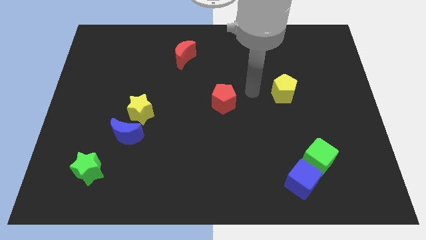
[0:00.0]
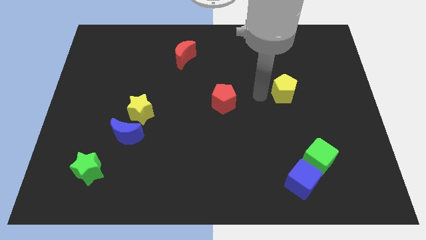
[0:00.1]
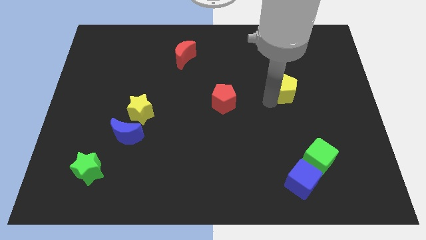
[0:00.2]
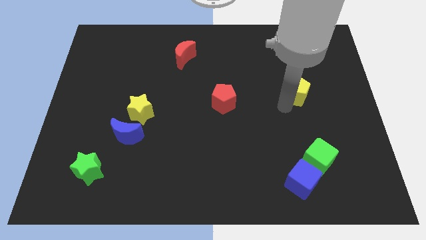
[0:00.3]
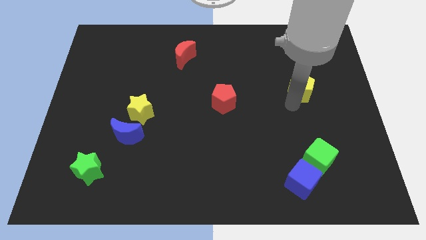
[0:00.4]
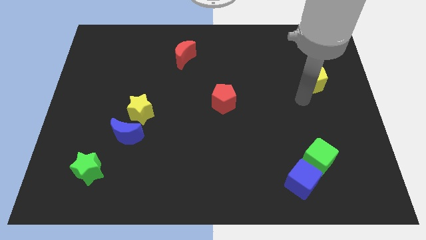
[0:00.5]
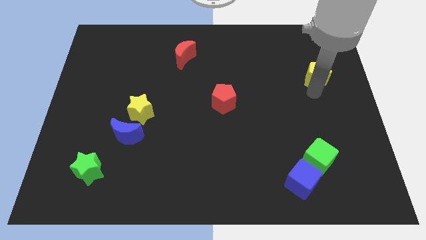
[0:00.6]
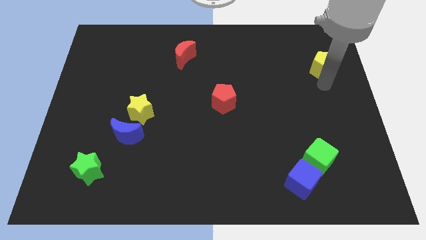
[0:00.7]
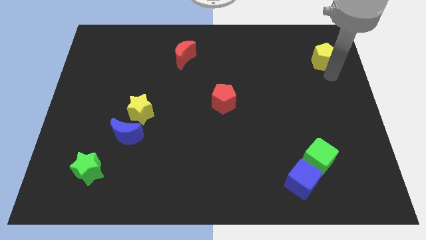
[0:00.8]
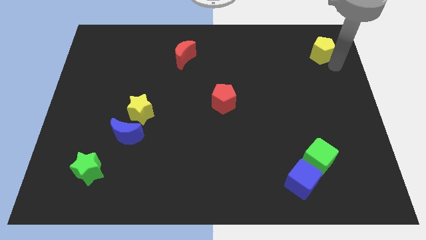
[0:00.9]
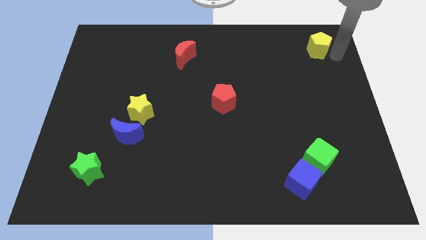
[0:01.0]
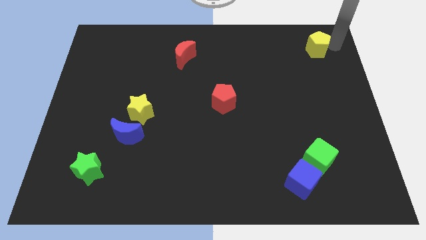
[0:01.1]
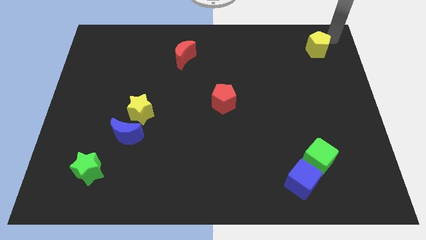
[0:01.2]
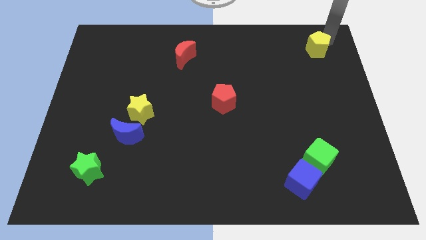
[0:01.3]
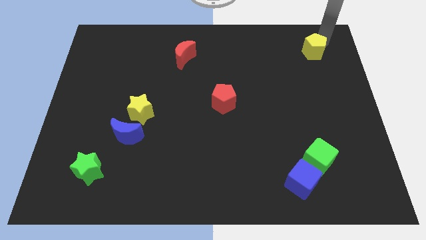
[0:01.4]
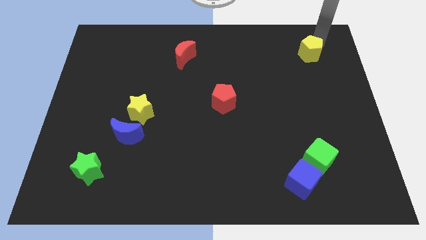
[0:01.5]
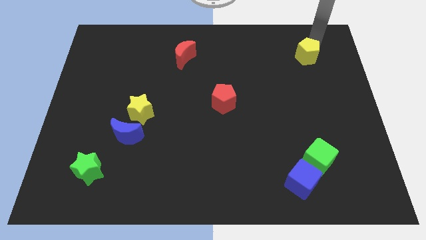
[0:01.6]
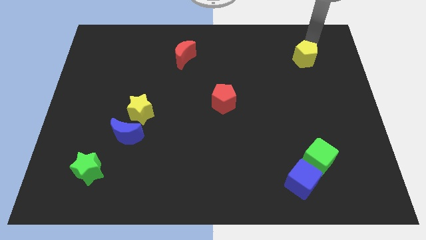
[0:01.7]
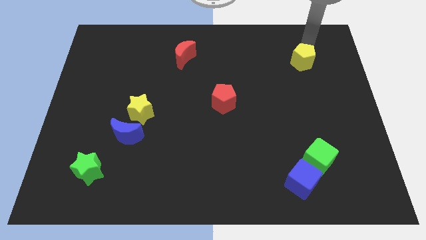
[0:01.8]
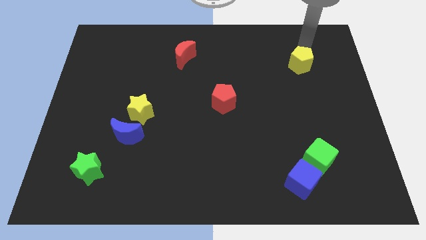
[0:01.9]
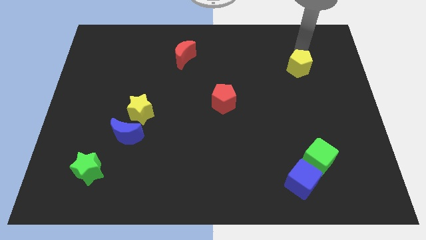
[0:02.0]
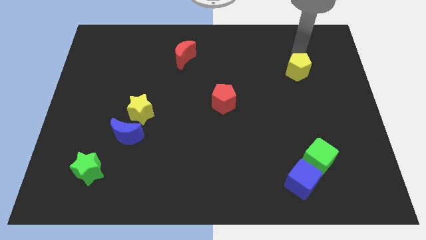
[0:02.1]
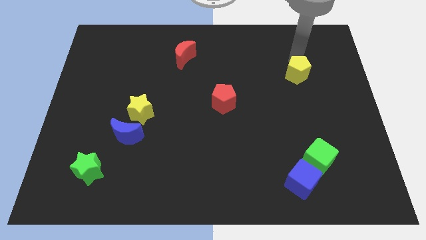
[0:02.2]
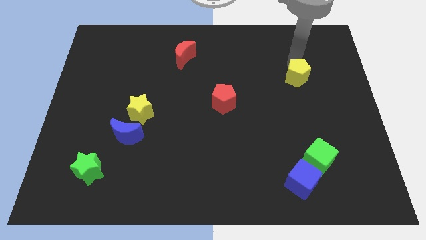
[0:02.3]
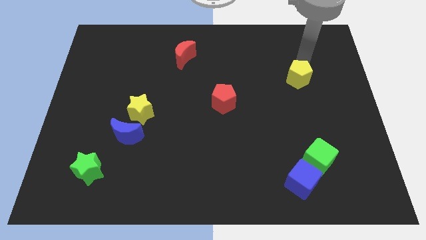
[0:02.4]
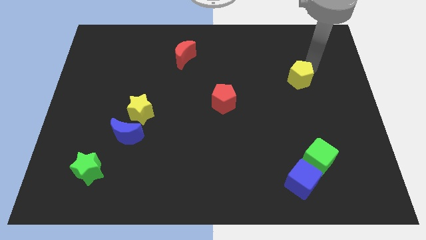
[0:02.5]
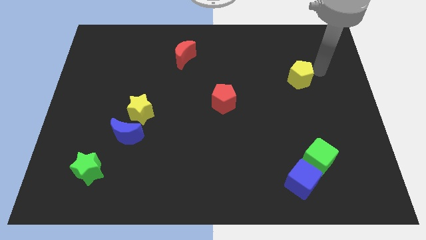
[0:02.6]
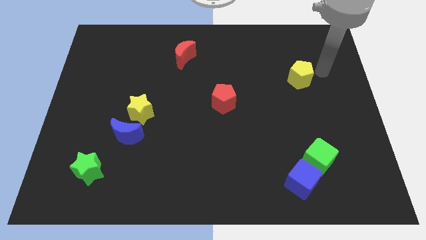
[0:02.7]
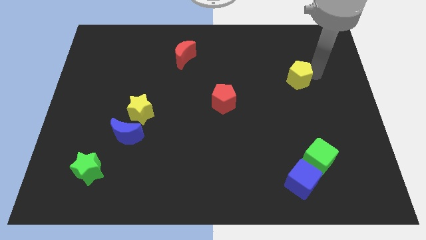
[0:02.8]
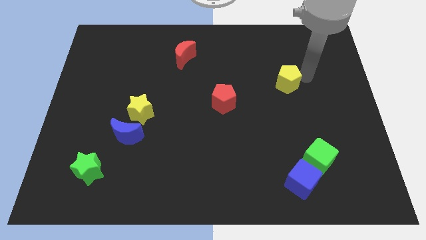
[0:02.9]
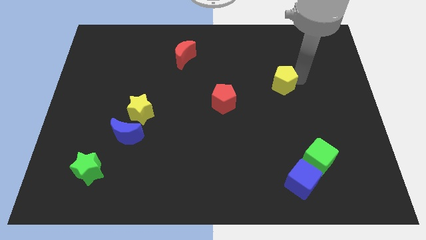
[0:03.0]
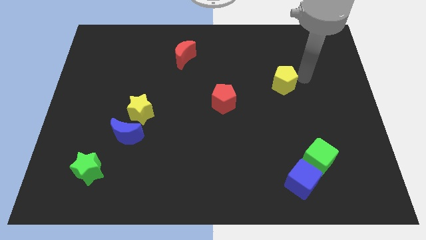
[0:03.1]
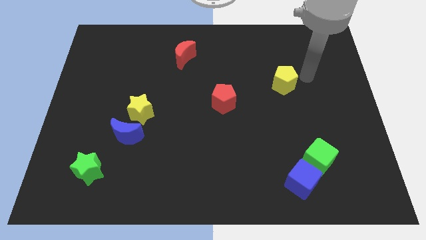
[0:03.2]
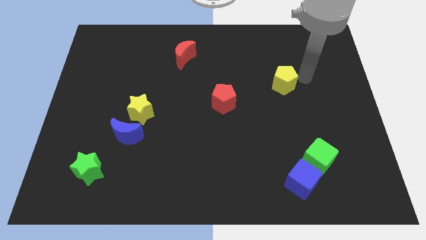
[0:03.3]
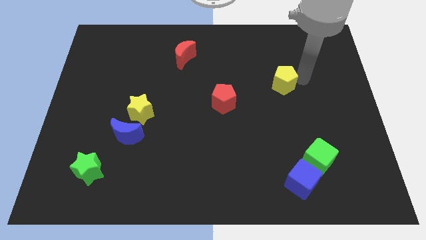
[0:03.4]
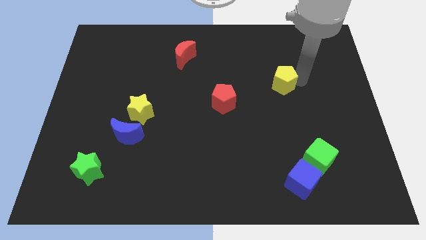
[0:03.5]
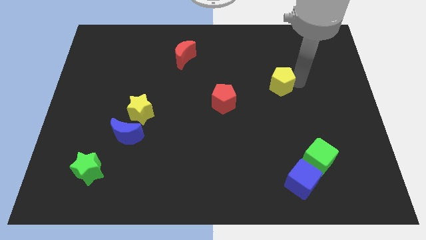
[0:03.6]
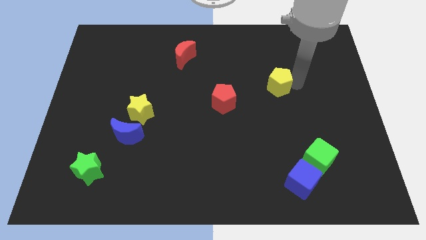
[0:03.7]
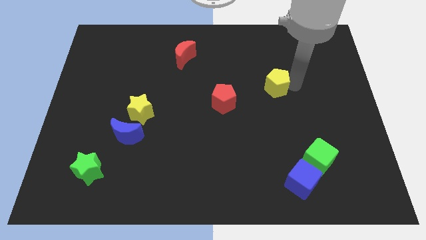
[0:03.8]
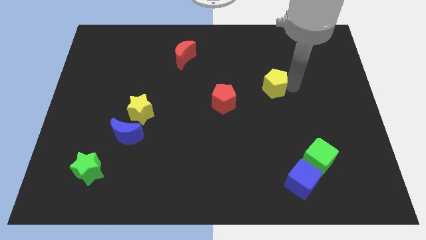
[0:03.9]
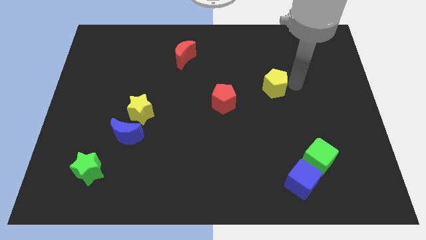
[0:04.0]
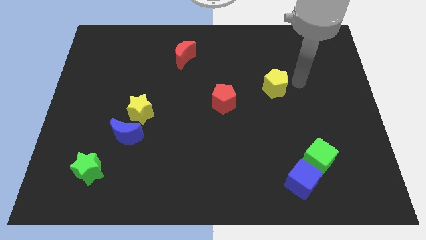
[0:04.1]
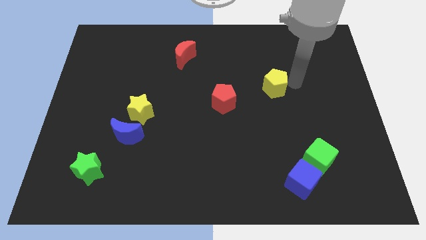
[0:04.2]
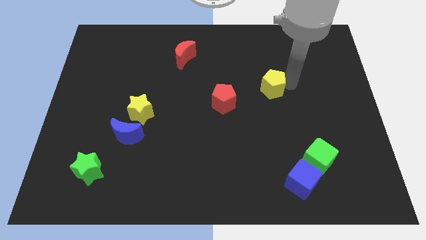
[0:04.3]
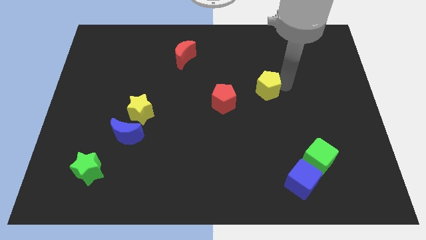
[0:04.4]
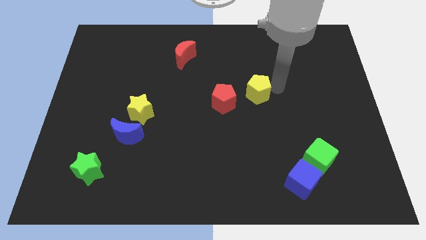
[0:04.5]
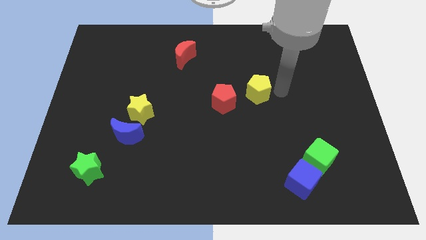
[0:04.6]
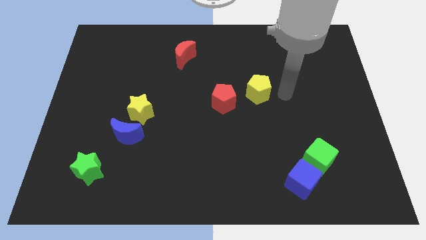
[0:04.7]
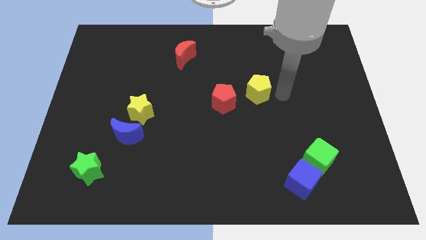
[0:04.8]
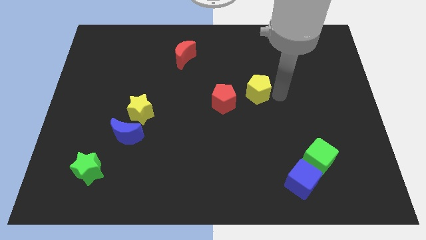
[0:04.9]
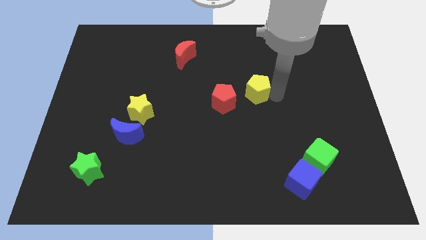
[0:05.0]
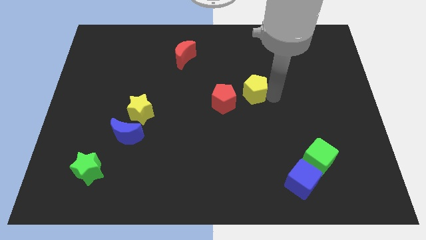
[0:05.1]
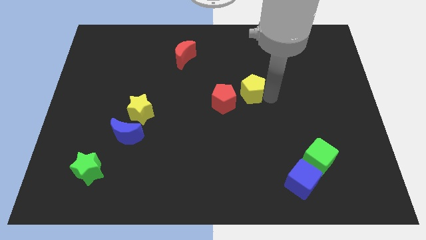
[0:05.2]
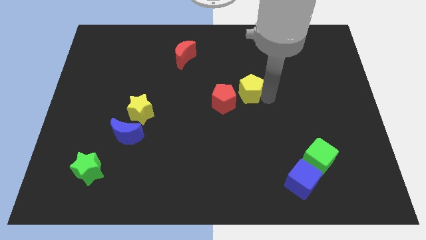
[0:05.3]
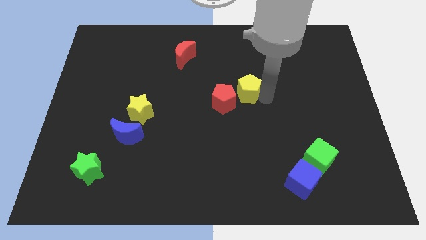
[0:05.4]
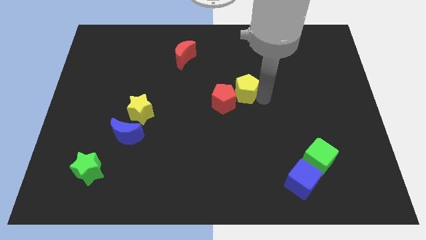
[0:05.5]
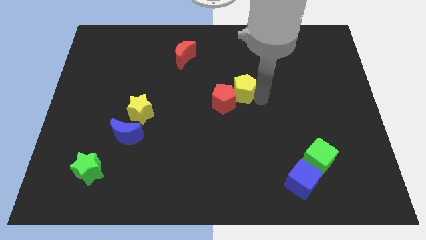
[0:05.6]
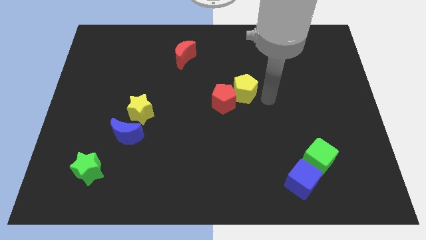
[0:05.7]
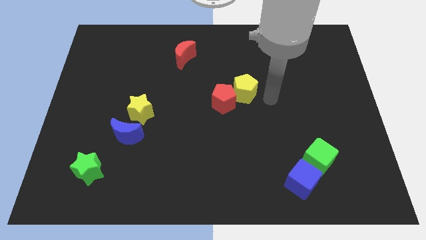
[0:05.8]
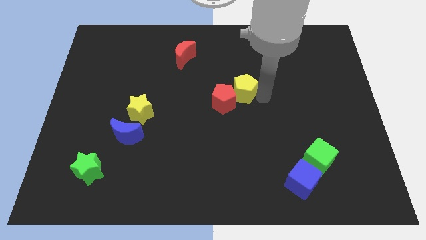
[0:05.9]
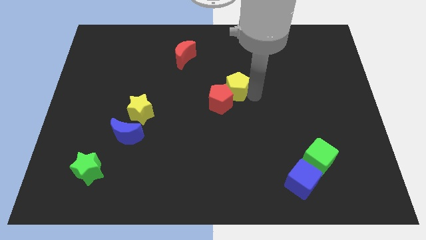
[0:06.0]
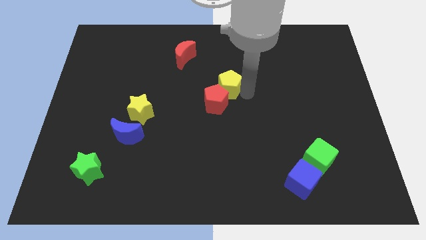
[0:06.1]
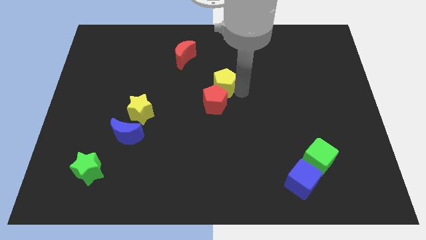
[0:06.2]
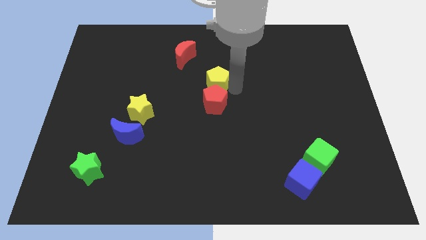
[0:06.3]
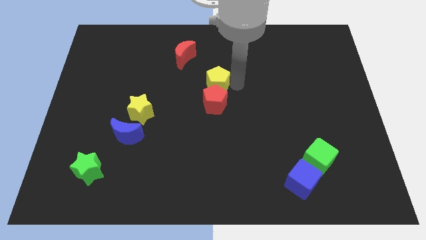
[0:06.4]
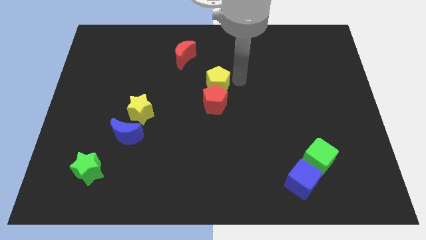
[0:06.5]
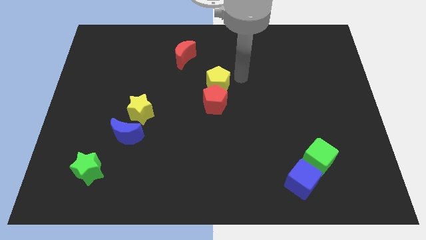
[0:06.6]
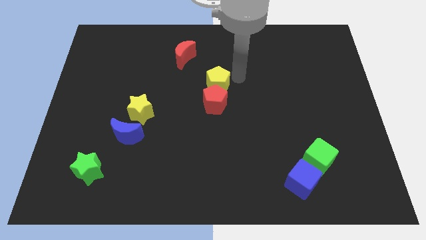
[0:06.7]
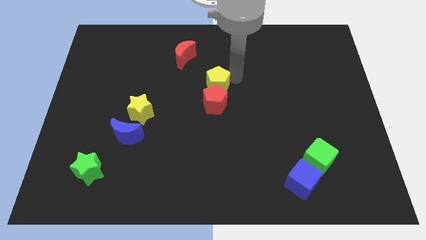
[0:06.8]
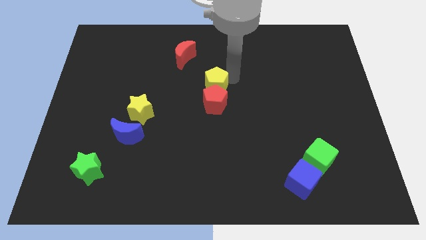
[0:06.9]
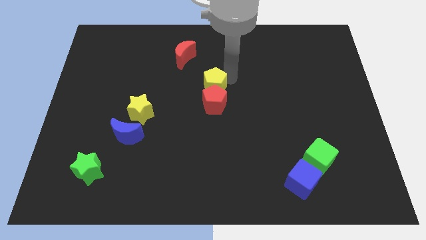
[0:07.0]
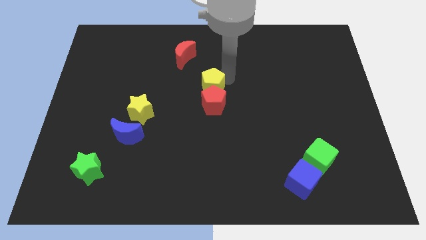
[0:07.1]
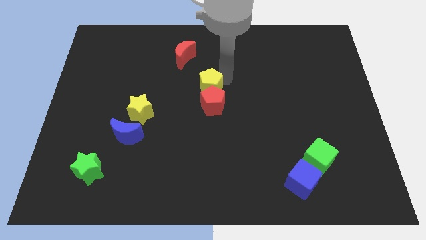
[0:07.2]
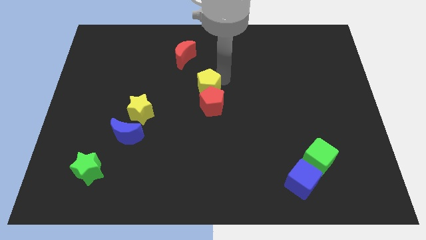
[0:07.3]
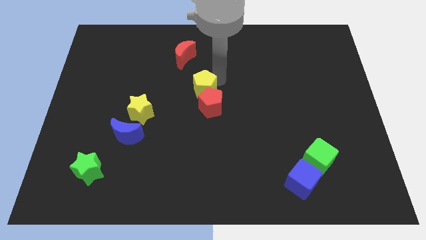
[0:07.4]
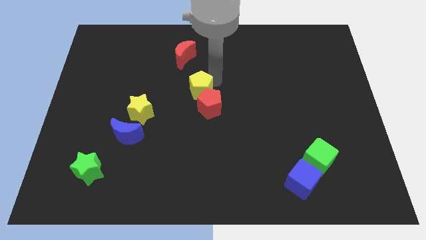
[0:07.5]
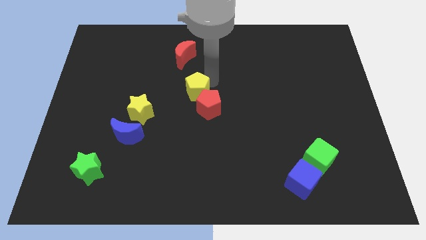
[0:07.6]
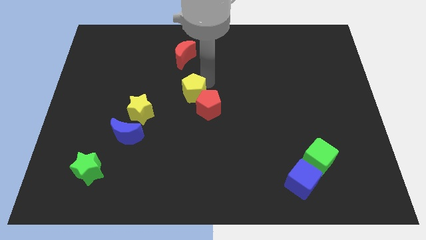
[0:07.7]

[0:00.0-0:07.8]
put the yellow pentagon just left of the red pentagon
